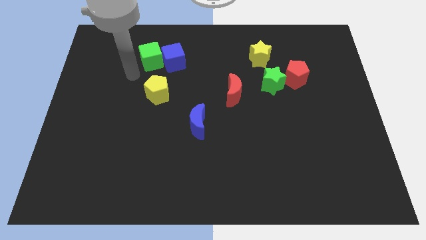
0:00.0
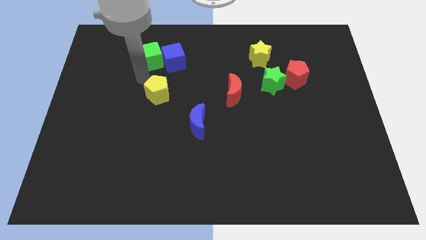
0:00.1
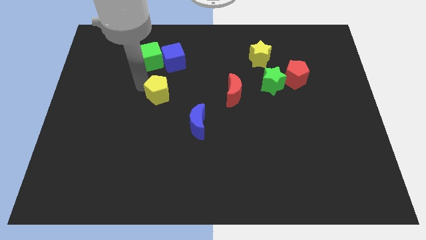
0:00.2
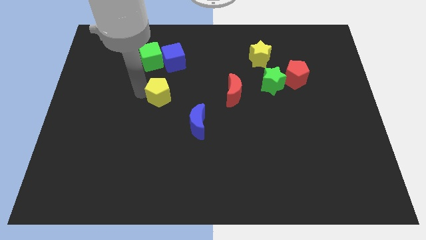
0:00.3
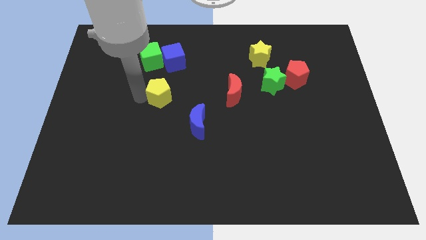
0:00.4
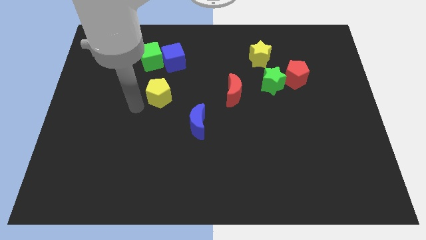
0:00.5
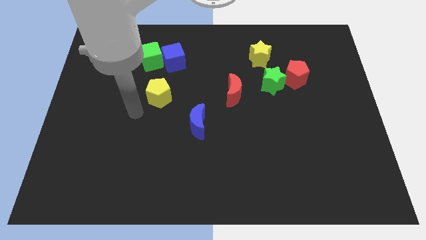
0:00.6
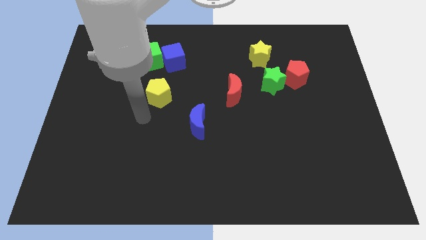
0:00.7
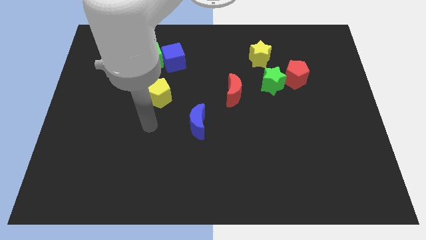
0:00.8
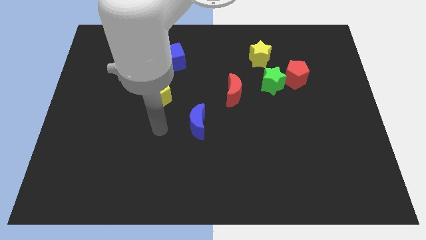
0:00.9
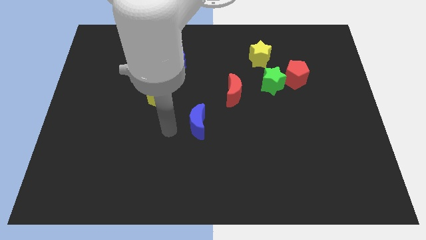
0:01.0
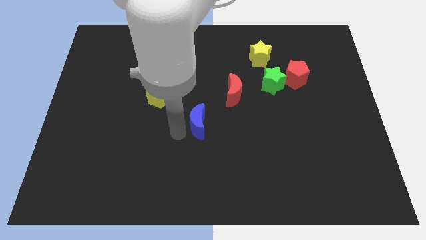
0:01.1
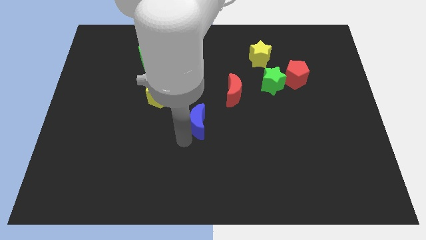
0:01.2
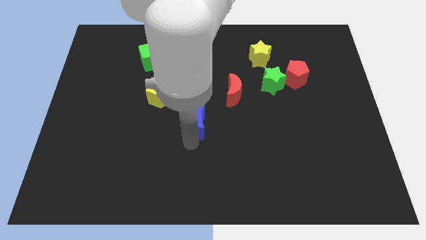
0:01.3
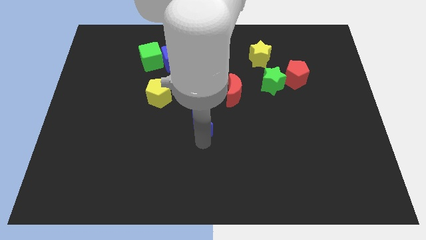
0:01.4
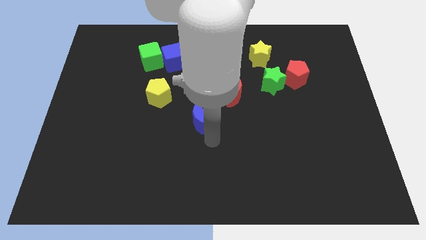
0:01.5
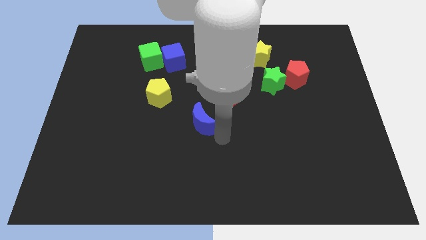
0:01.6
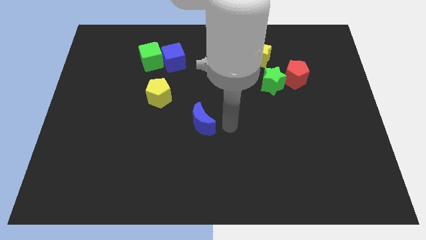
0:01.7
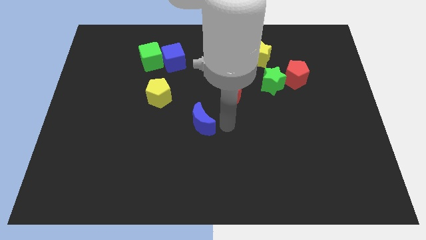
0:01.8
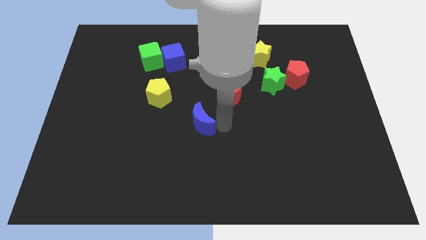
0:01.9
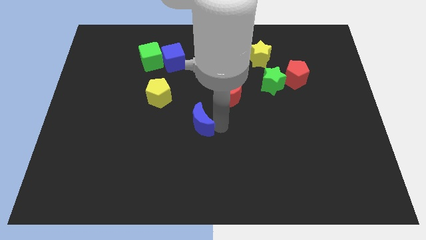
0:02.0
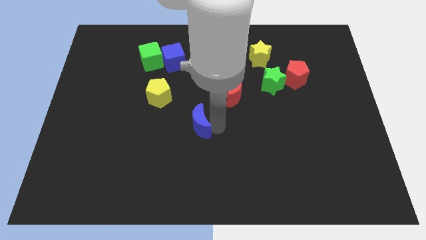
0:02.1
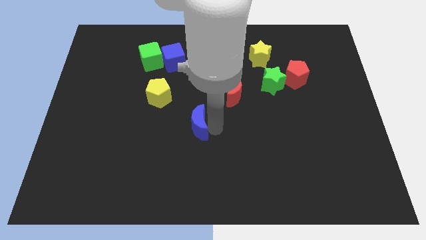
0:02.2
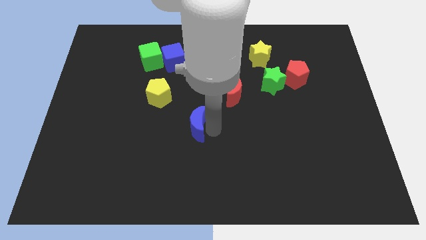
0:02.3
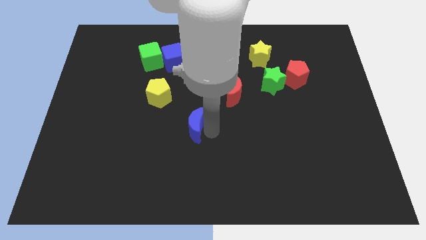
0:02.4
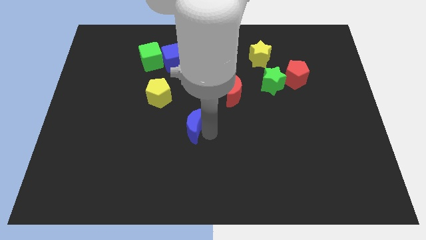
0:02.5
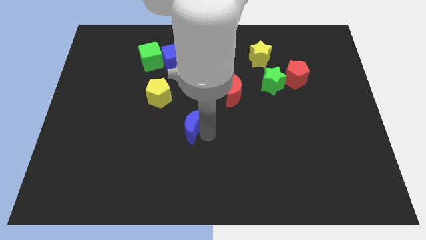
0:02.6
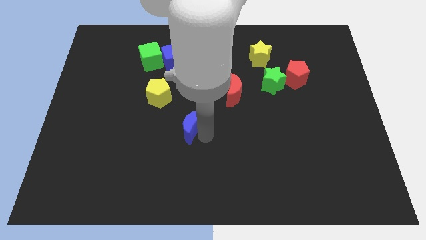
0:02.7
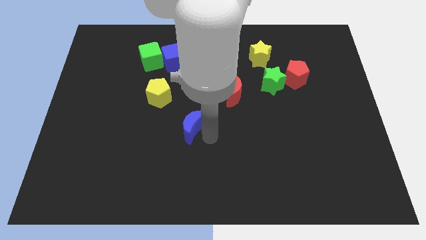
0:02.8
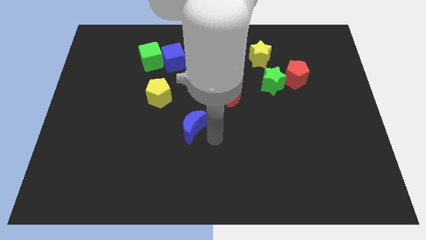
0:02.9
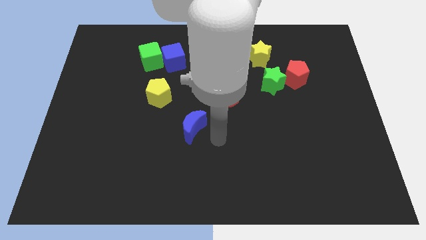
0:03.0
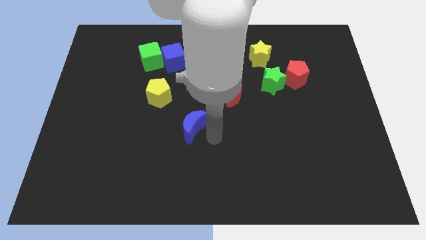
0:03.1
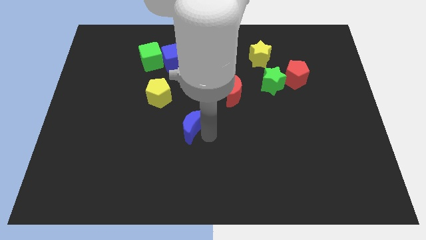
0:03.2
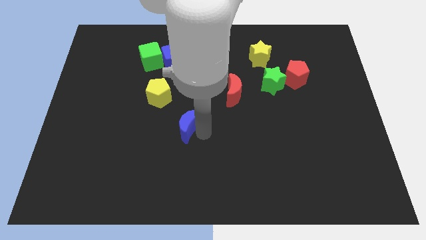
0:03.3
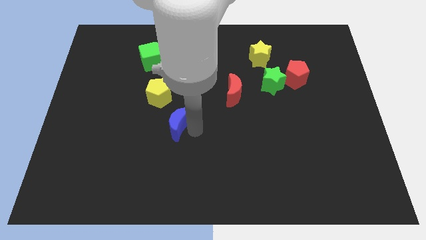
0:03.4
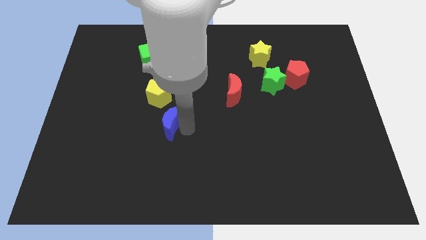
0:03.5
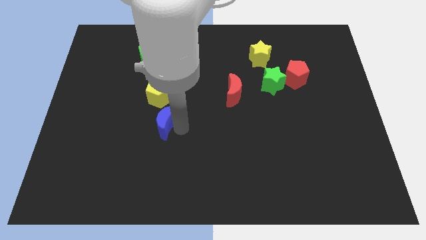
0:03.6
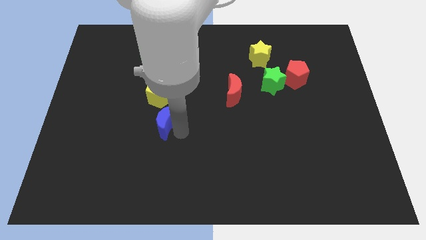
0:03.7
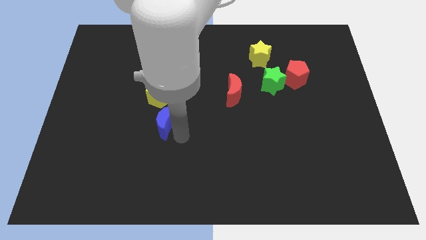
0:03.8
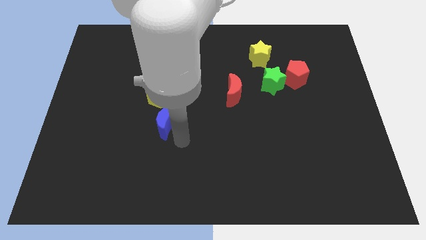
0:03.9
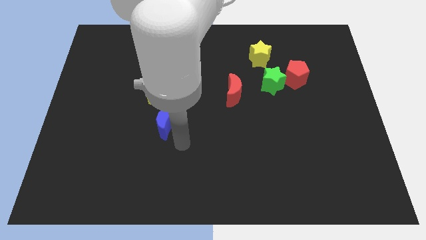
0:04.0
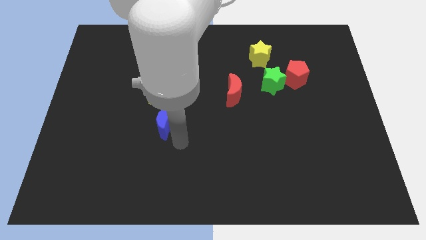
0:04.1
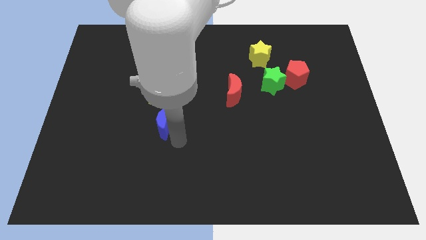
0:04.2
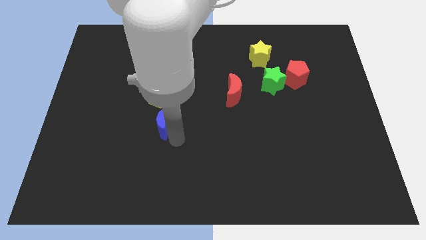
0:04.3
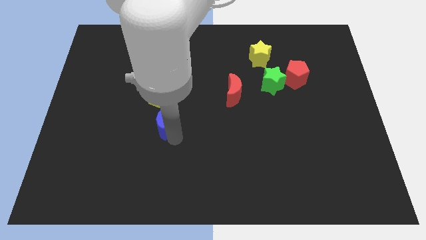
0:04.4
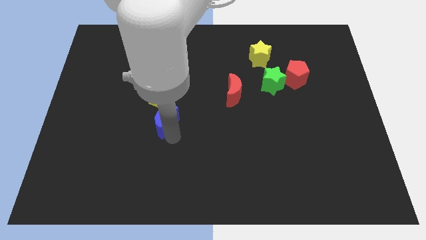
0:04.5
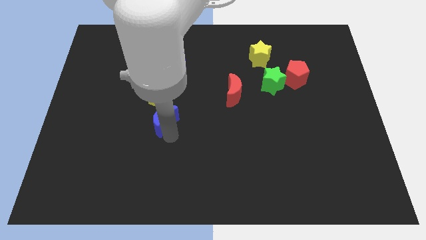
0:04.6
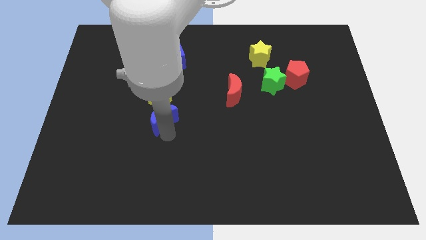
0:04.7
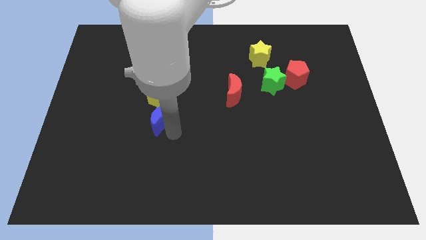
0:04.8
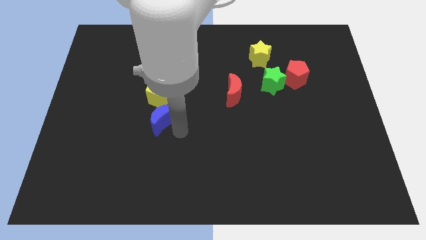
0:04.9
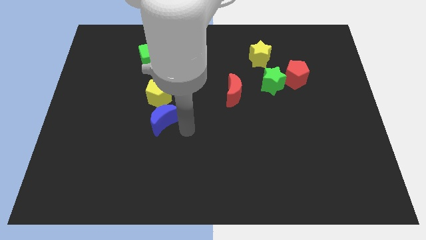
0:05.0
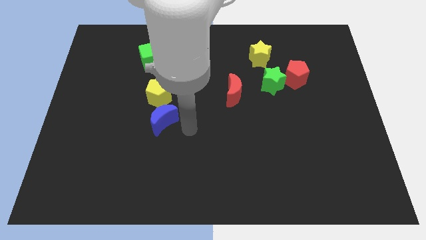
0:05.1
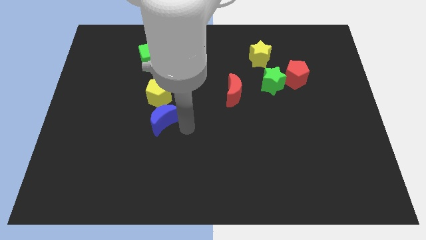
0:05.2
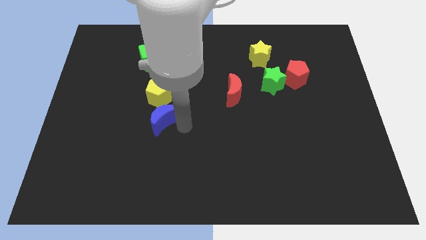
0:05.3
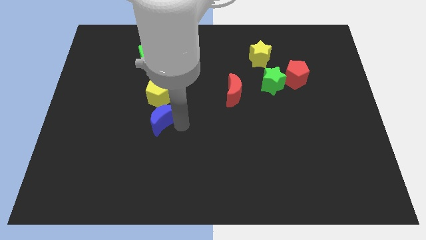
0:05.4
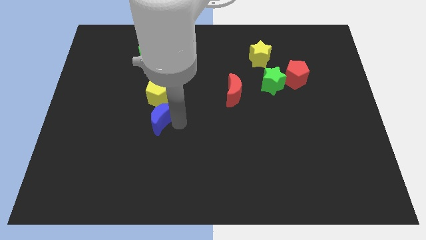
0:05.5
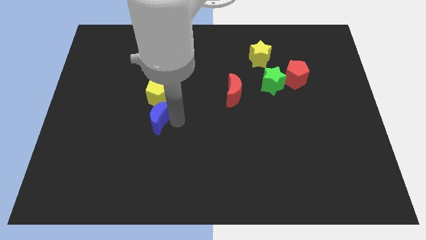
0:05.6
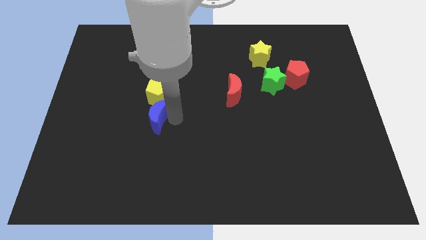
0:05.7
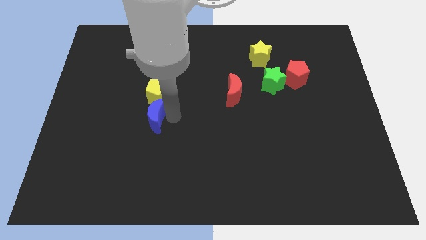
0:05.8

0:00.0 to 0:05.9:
move the blue moon to the bottom left of the yellow pentagon

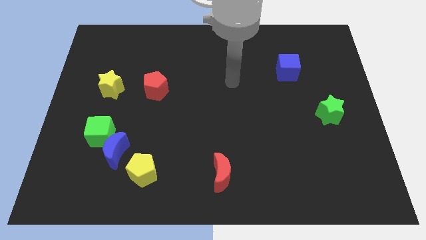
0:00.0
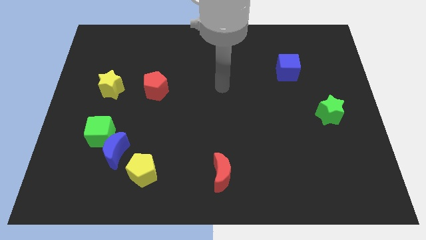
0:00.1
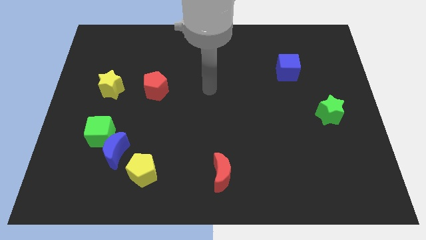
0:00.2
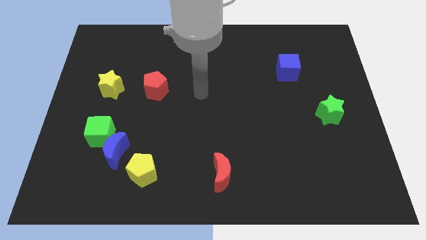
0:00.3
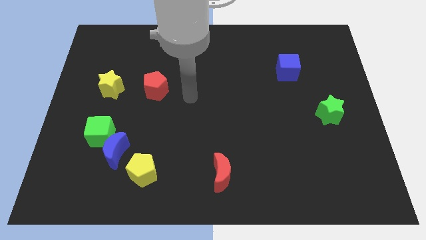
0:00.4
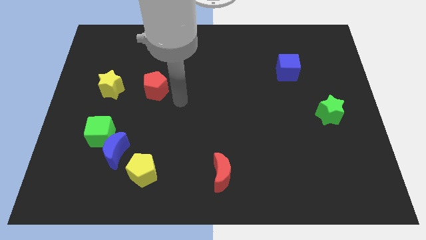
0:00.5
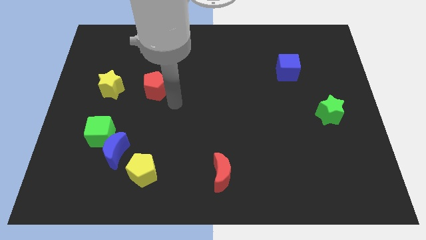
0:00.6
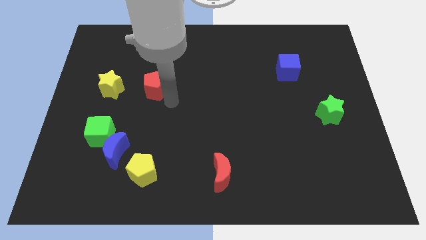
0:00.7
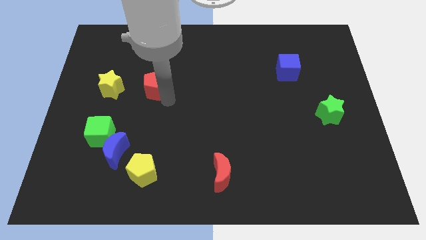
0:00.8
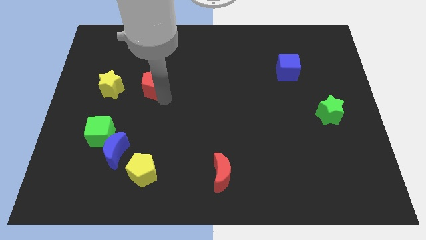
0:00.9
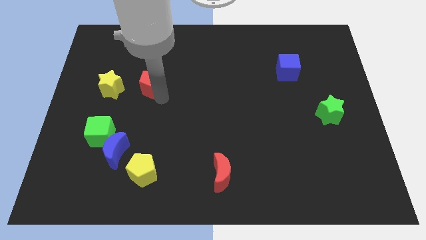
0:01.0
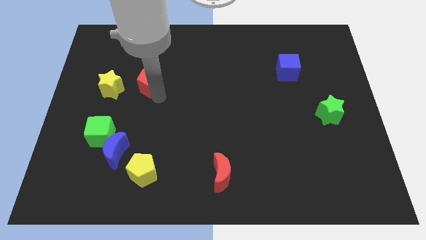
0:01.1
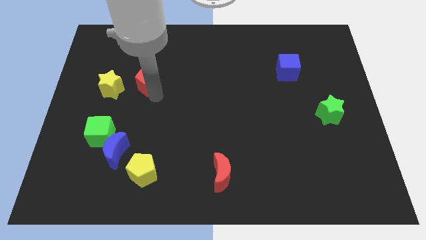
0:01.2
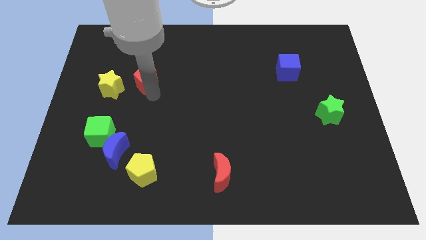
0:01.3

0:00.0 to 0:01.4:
put the red pentagon diagonally up and to the right of the yellow star
